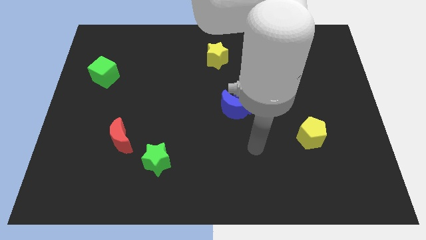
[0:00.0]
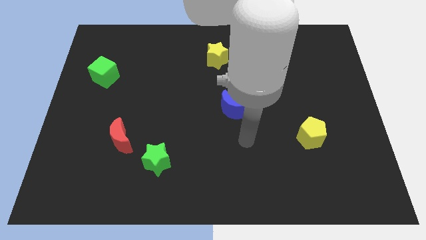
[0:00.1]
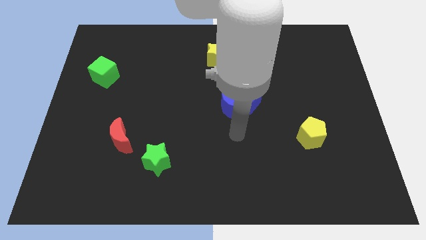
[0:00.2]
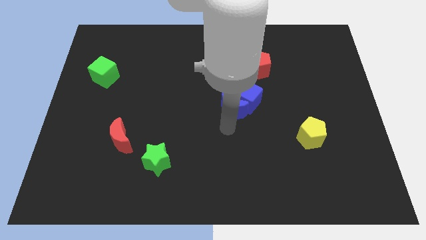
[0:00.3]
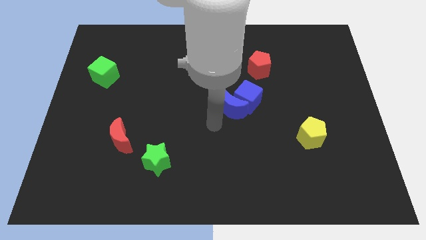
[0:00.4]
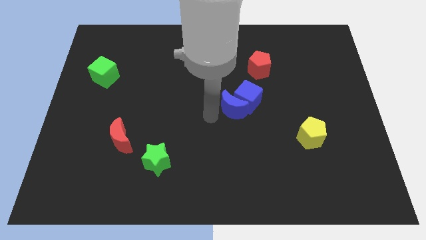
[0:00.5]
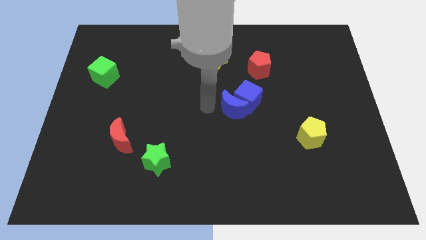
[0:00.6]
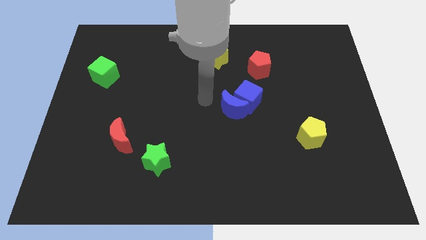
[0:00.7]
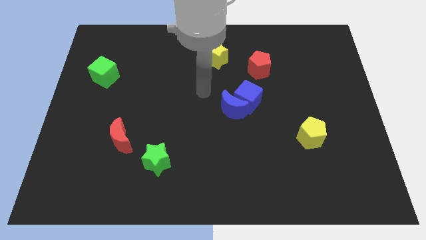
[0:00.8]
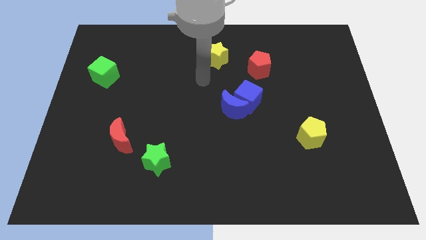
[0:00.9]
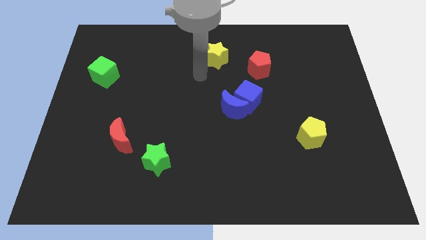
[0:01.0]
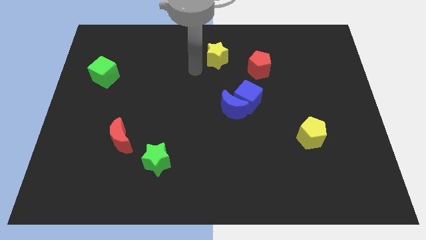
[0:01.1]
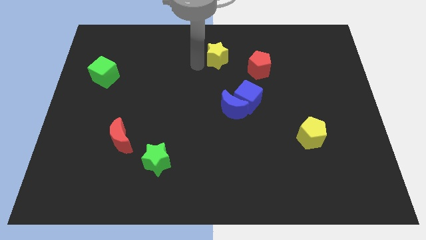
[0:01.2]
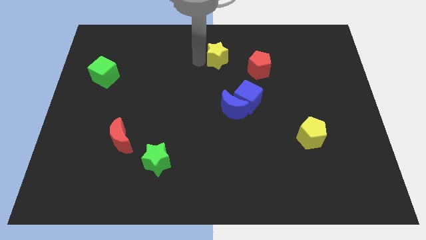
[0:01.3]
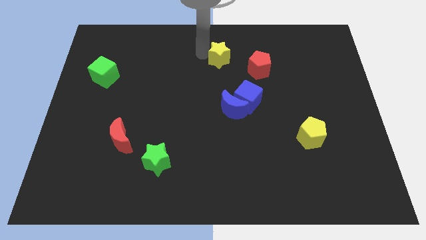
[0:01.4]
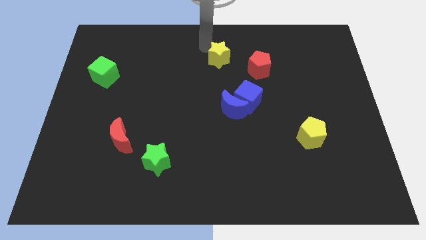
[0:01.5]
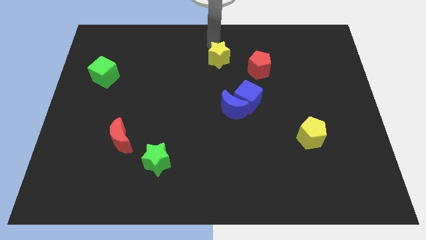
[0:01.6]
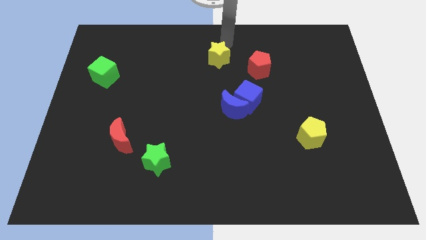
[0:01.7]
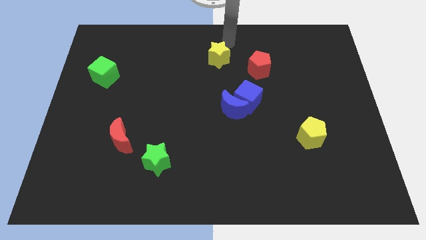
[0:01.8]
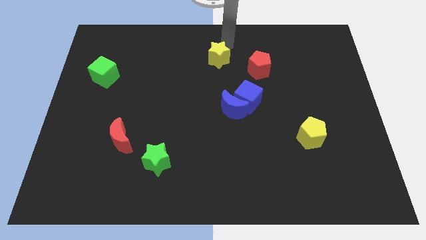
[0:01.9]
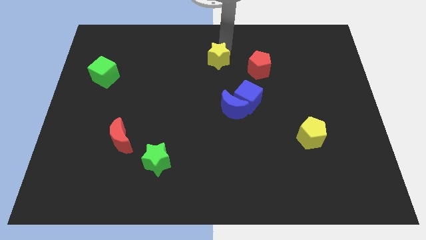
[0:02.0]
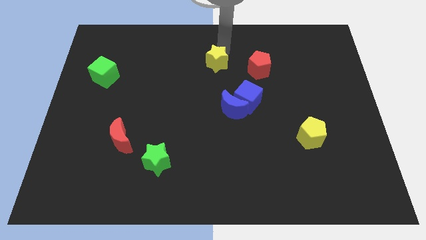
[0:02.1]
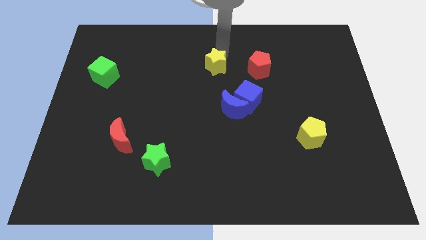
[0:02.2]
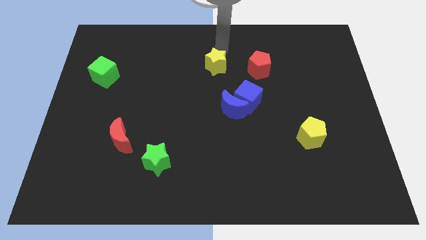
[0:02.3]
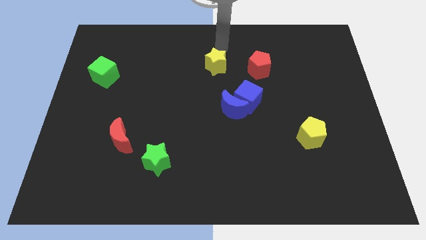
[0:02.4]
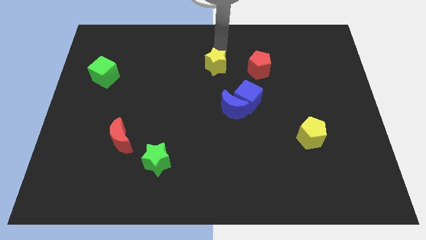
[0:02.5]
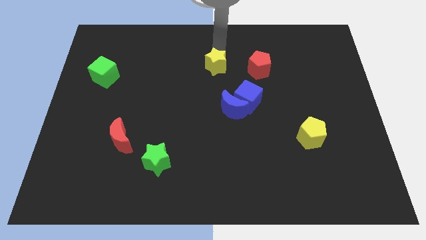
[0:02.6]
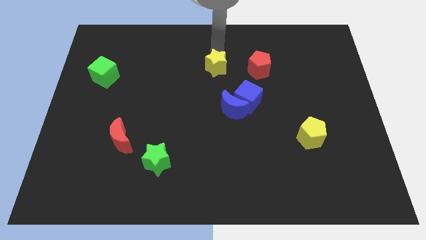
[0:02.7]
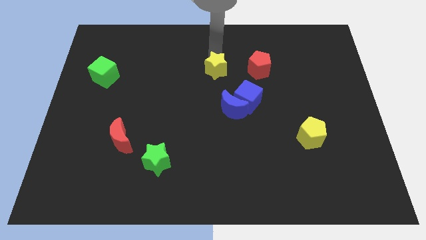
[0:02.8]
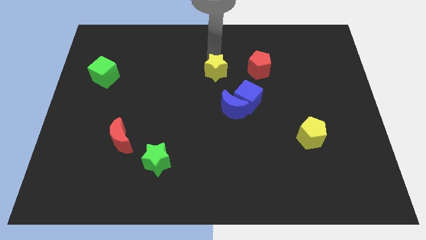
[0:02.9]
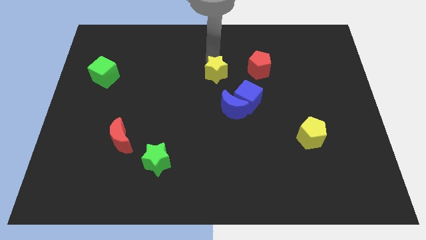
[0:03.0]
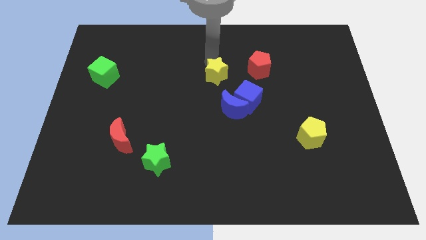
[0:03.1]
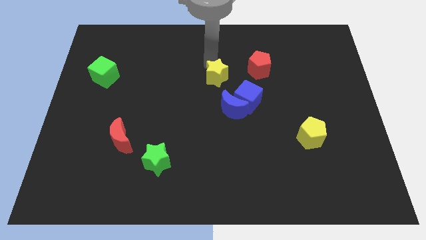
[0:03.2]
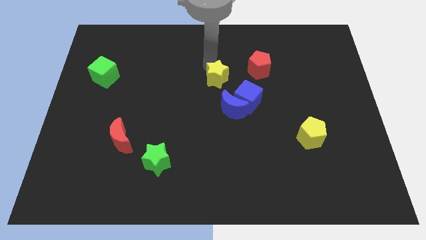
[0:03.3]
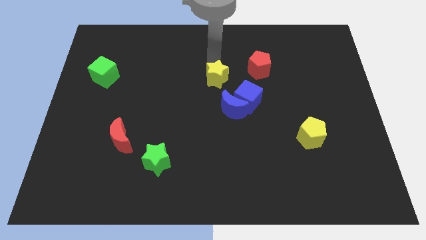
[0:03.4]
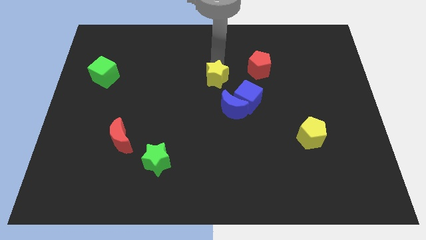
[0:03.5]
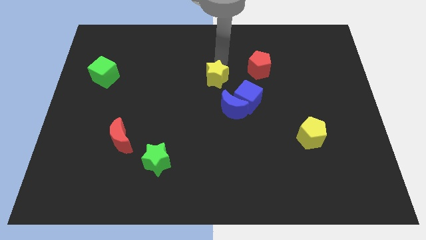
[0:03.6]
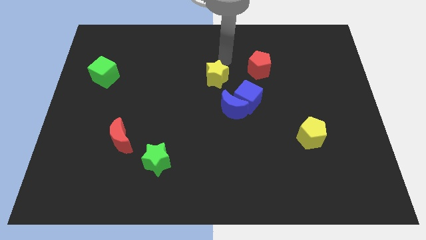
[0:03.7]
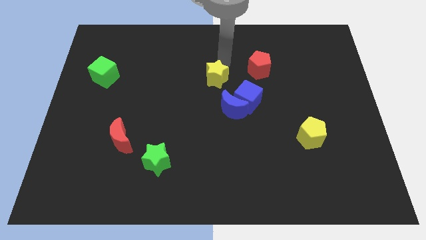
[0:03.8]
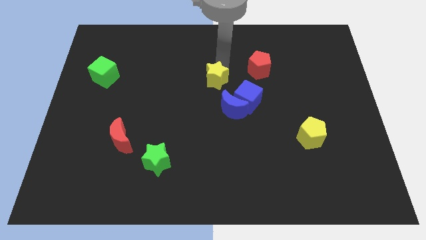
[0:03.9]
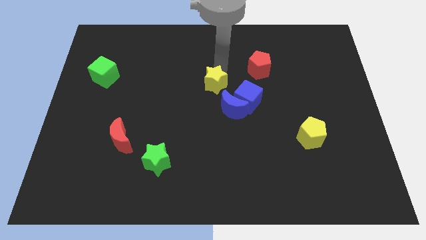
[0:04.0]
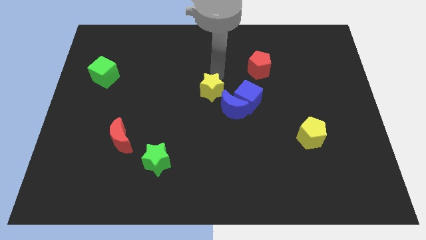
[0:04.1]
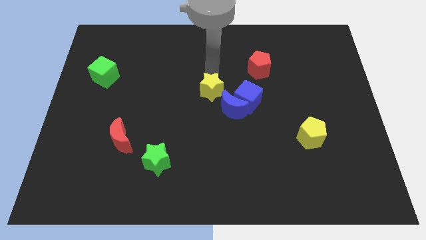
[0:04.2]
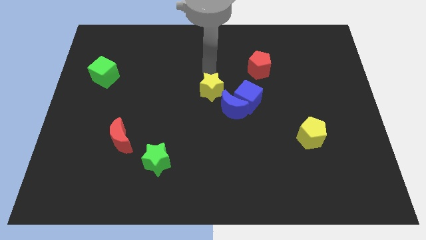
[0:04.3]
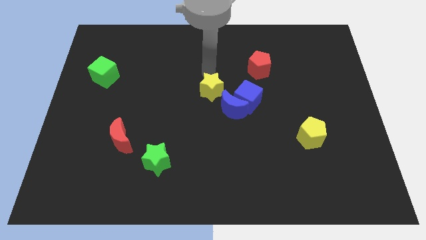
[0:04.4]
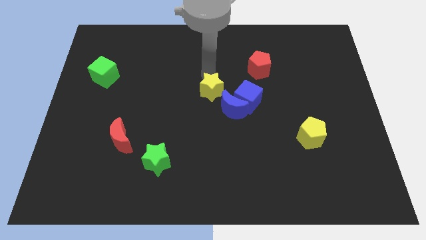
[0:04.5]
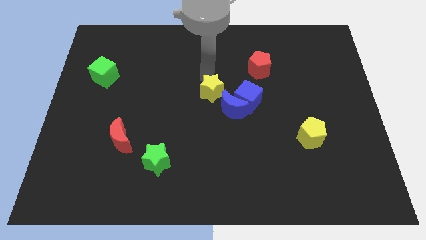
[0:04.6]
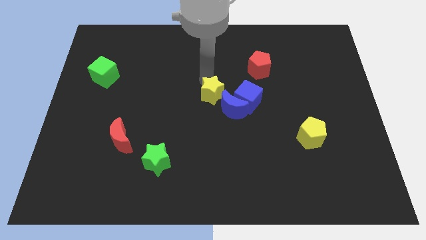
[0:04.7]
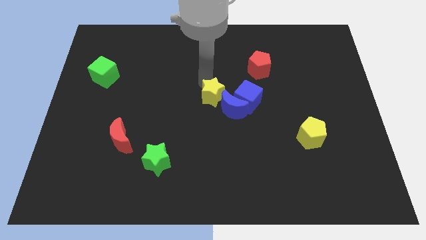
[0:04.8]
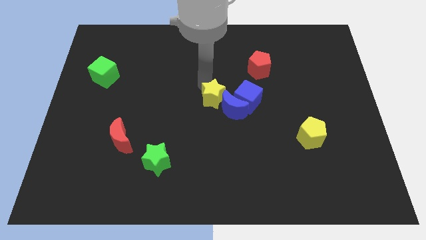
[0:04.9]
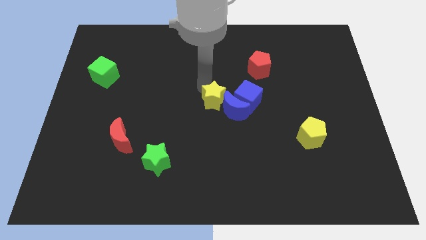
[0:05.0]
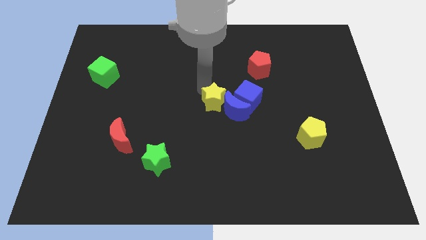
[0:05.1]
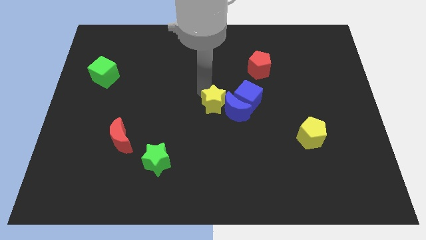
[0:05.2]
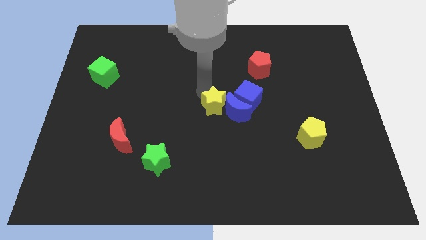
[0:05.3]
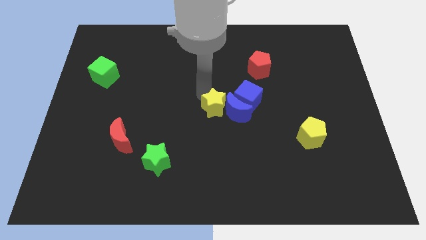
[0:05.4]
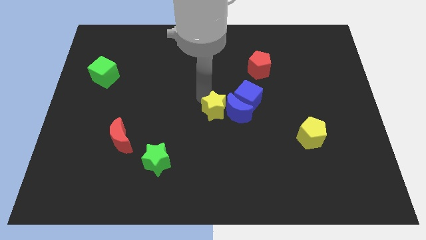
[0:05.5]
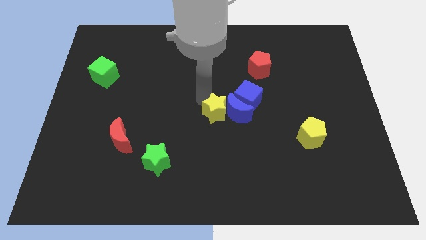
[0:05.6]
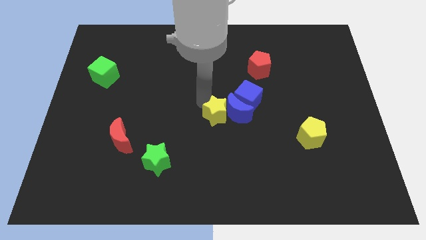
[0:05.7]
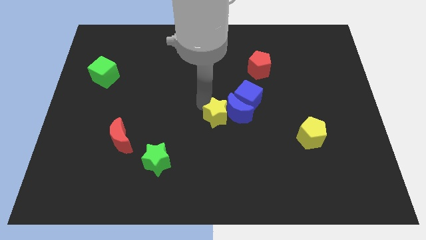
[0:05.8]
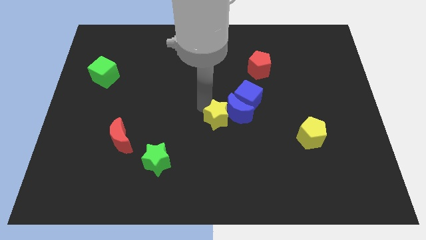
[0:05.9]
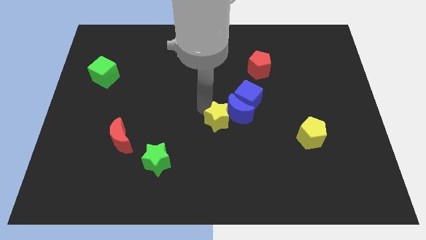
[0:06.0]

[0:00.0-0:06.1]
push the yellow star down

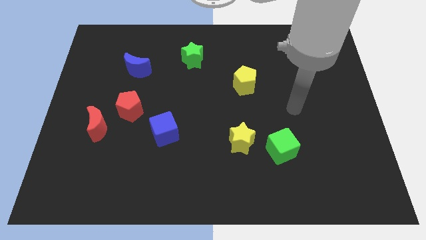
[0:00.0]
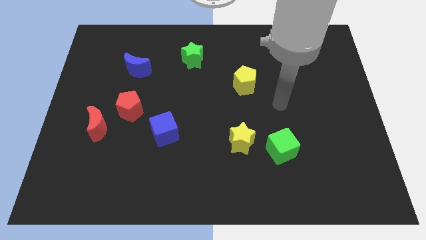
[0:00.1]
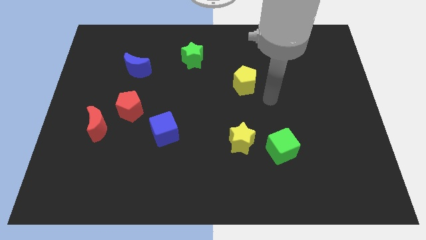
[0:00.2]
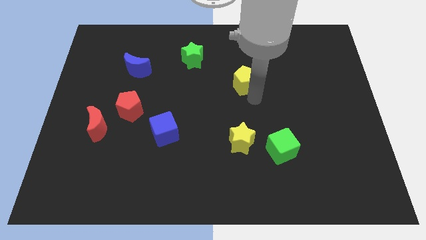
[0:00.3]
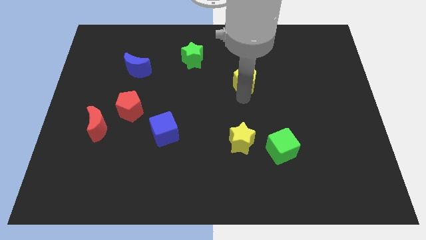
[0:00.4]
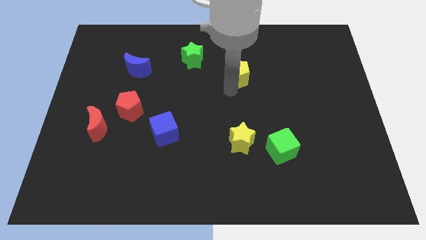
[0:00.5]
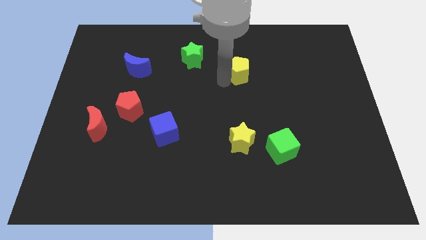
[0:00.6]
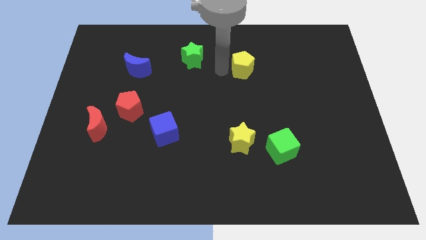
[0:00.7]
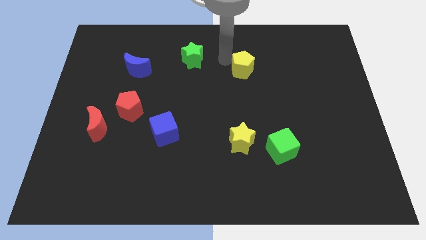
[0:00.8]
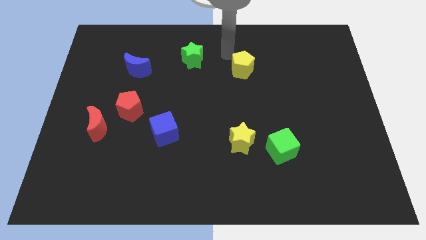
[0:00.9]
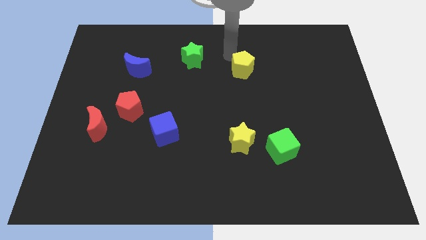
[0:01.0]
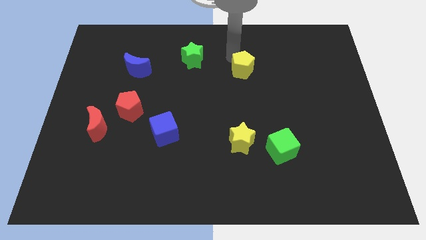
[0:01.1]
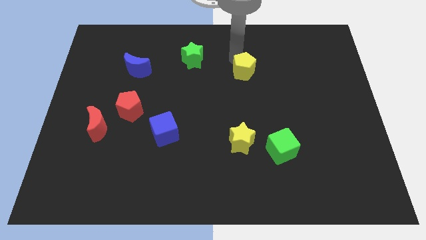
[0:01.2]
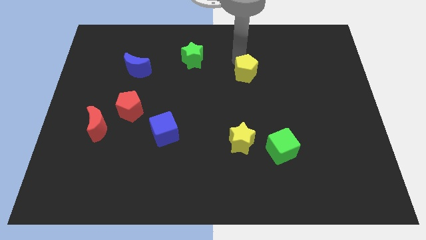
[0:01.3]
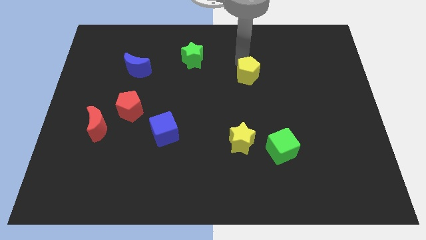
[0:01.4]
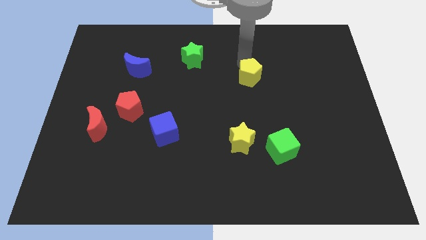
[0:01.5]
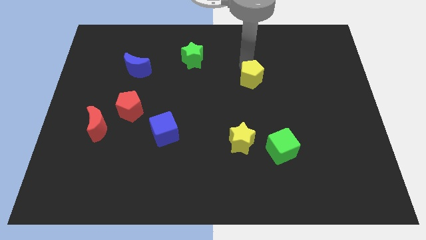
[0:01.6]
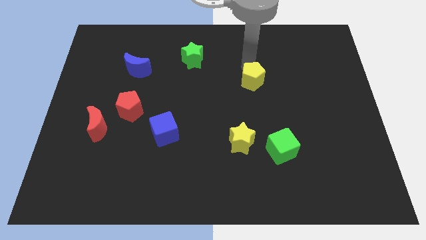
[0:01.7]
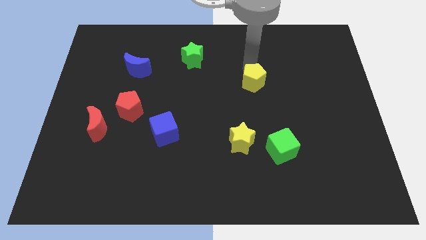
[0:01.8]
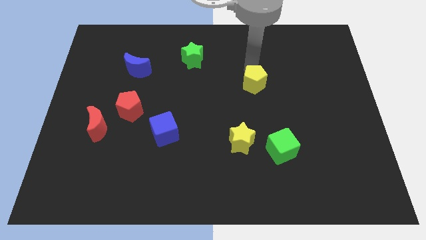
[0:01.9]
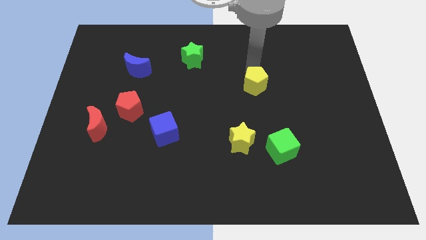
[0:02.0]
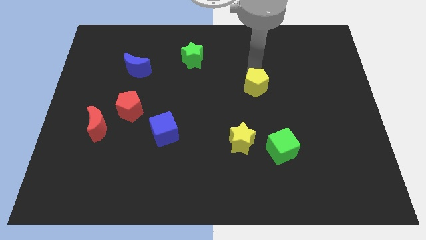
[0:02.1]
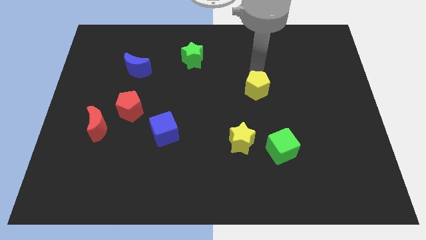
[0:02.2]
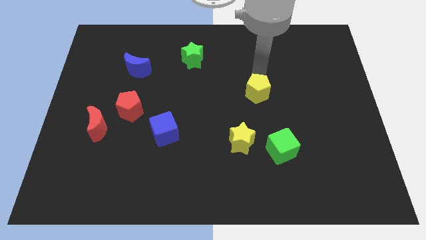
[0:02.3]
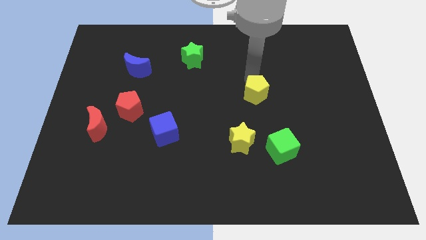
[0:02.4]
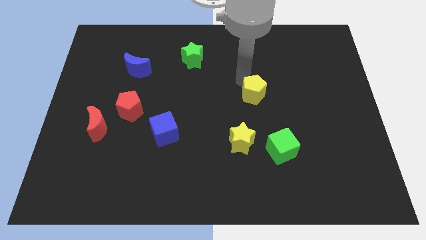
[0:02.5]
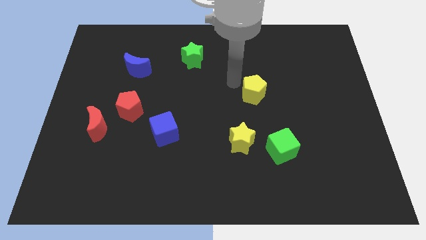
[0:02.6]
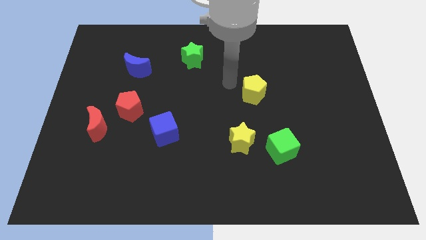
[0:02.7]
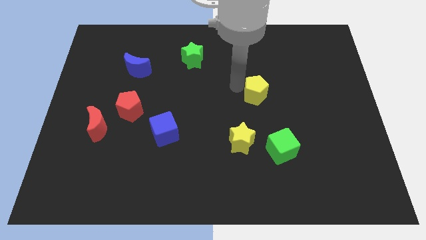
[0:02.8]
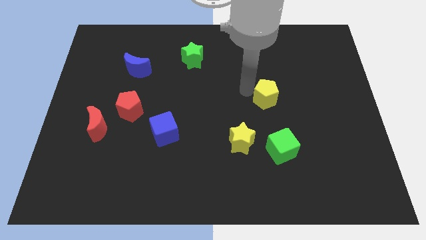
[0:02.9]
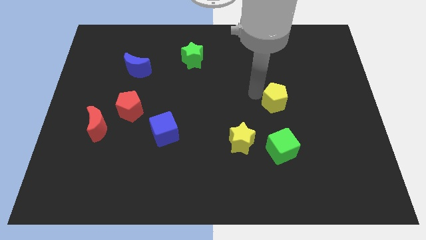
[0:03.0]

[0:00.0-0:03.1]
slide the yellow pentagon a little bit downwards and right diagonally
